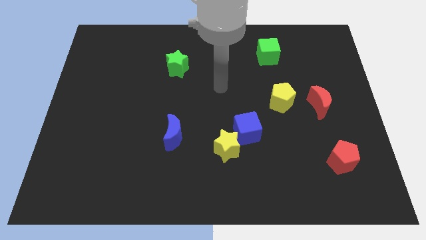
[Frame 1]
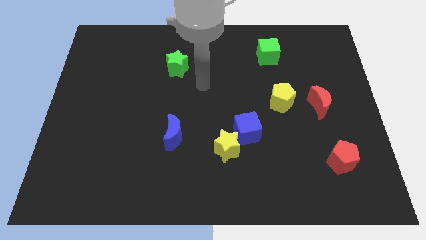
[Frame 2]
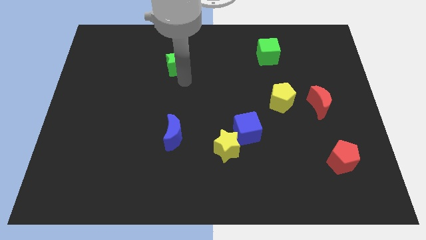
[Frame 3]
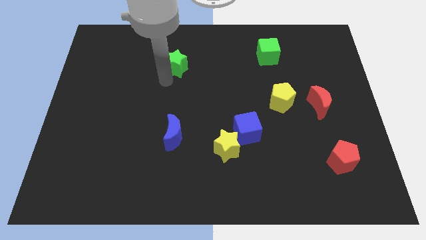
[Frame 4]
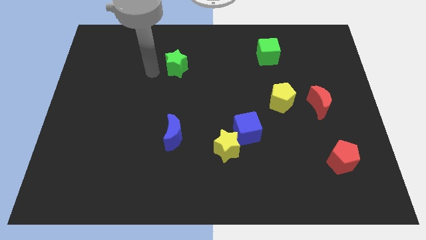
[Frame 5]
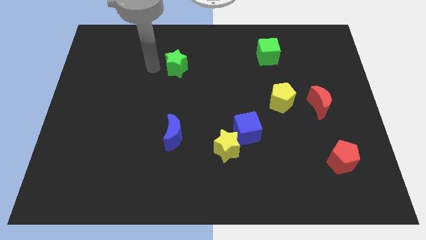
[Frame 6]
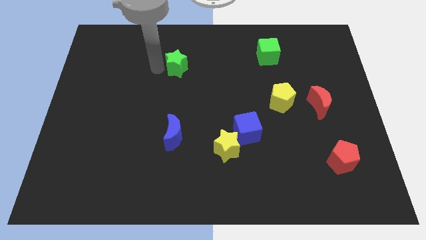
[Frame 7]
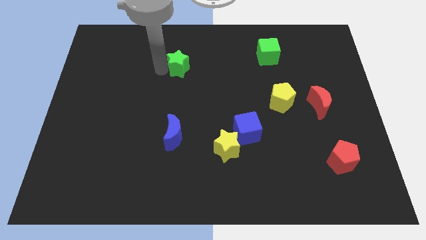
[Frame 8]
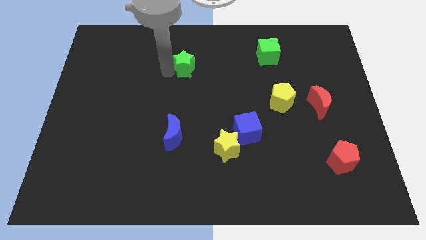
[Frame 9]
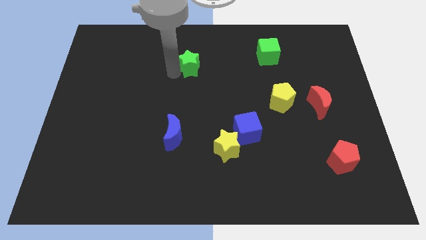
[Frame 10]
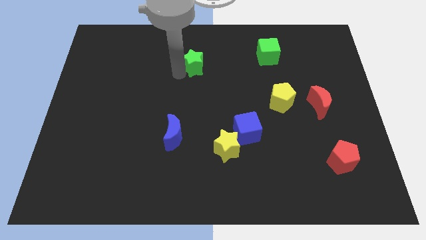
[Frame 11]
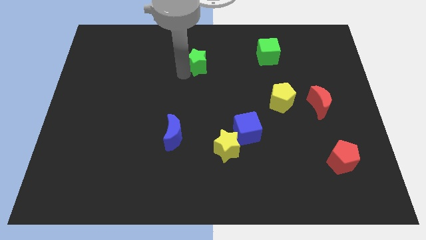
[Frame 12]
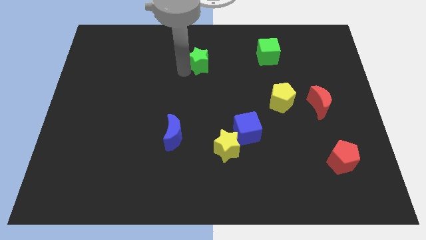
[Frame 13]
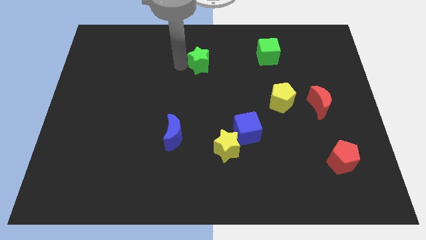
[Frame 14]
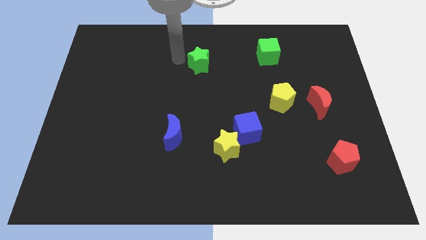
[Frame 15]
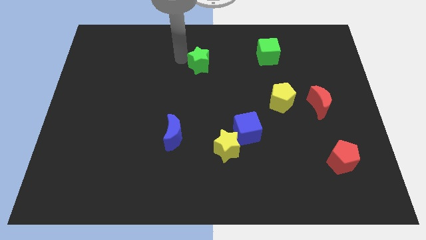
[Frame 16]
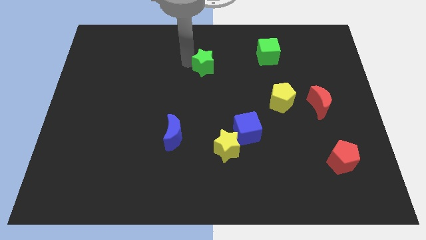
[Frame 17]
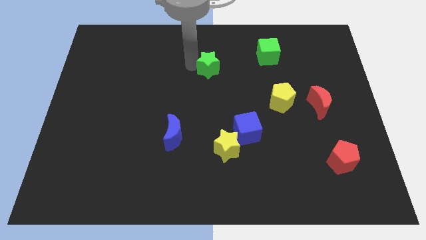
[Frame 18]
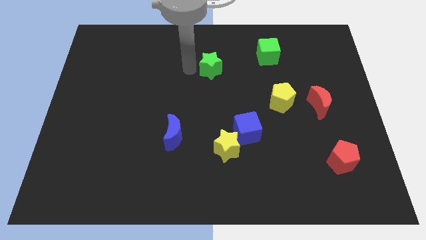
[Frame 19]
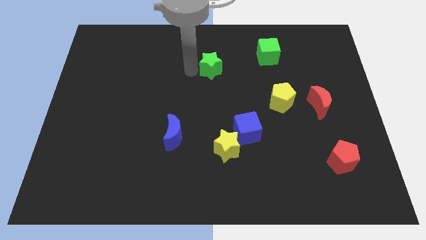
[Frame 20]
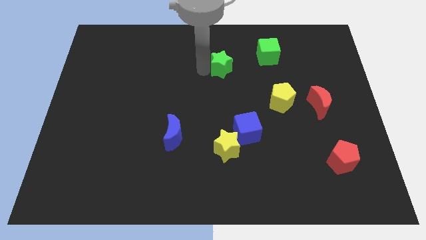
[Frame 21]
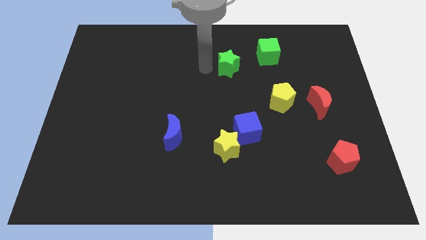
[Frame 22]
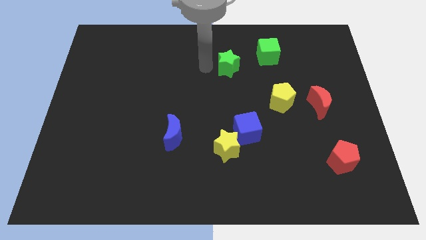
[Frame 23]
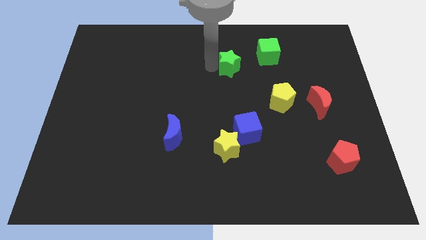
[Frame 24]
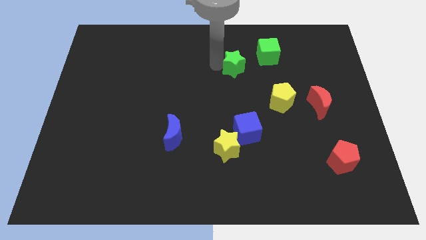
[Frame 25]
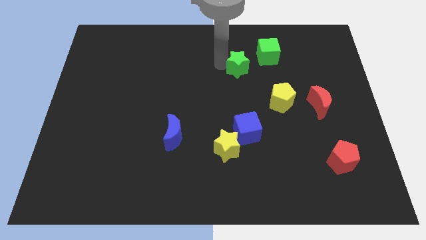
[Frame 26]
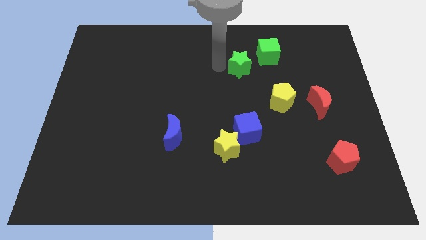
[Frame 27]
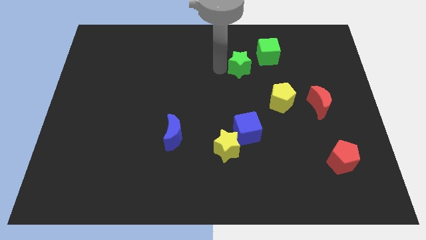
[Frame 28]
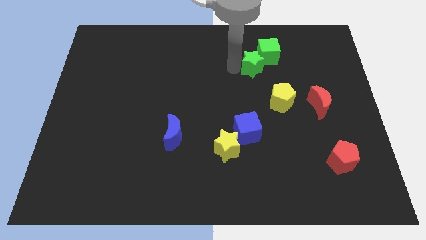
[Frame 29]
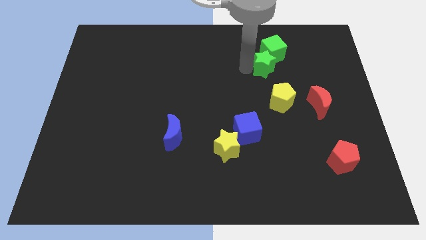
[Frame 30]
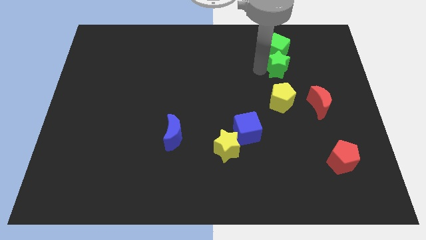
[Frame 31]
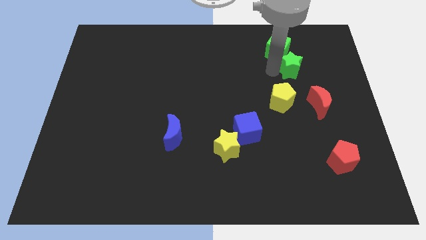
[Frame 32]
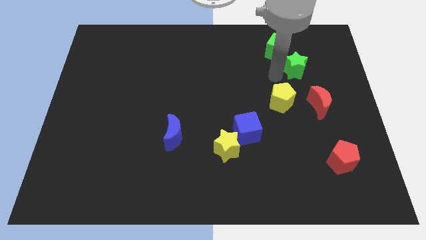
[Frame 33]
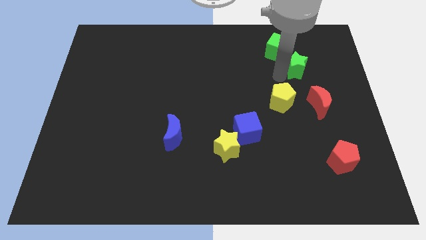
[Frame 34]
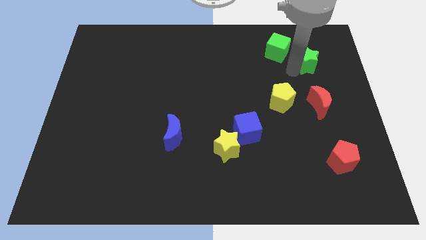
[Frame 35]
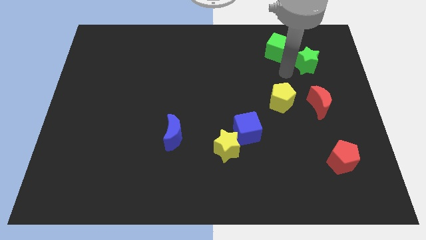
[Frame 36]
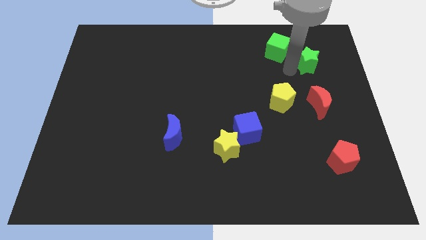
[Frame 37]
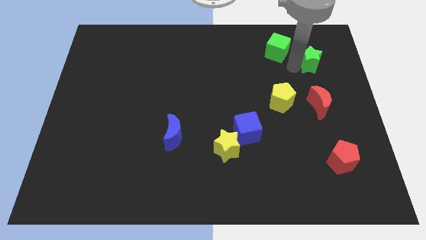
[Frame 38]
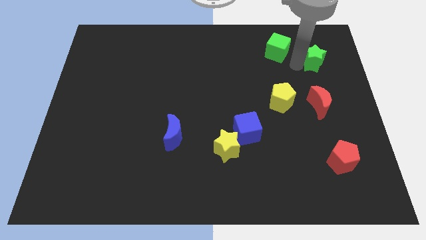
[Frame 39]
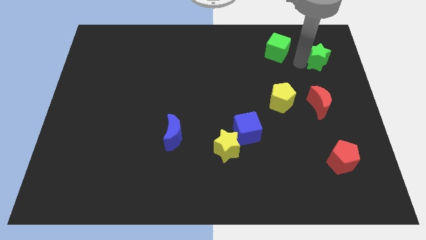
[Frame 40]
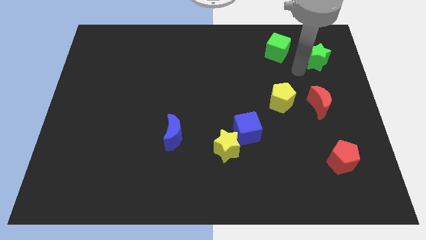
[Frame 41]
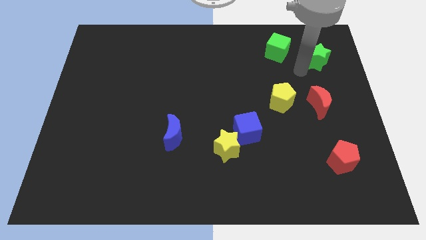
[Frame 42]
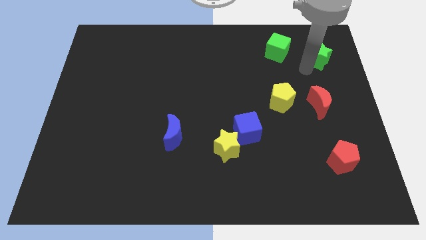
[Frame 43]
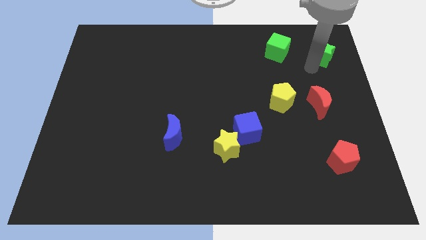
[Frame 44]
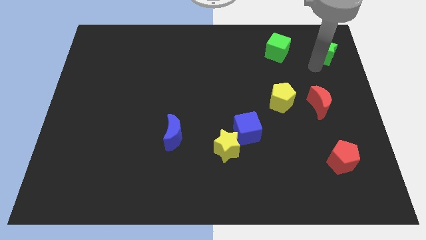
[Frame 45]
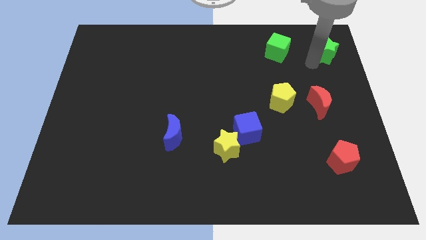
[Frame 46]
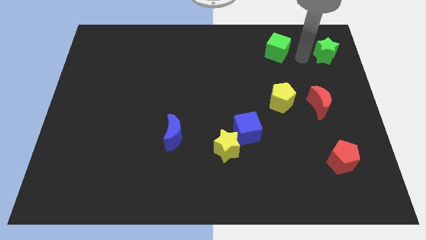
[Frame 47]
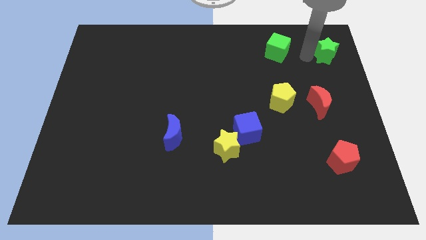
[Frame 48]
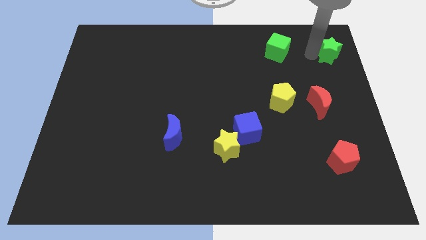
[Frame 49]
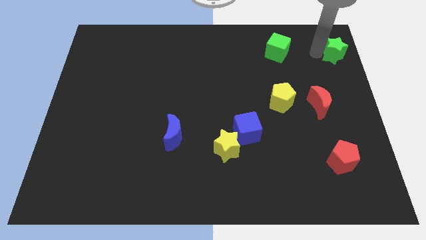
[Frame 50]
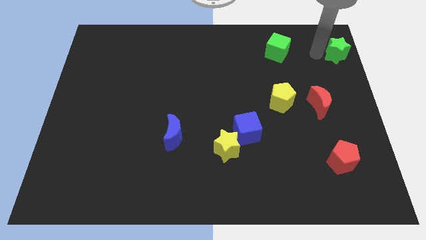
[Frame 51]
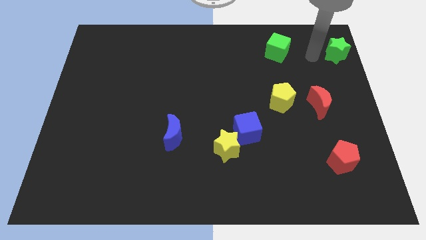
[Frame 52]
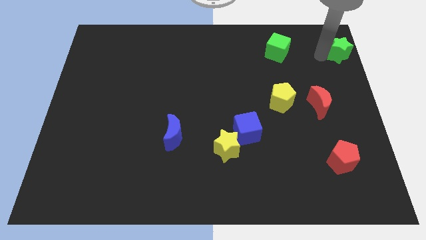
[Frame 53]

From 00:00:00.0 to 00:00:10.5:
put the green star to the top right of the board
